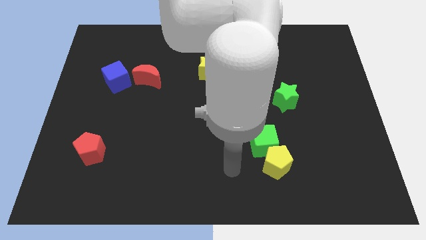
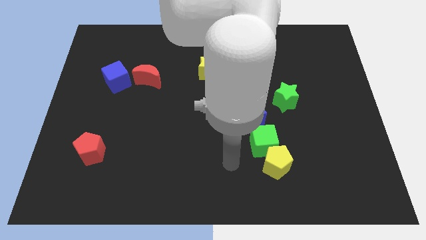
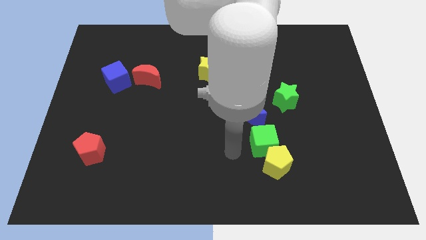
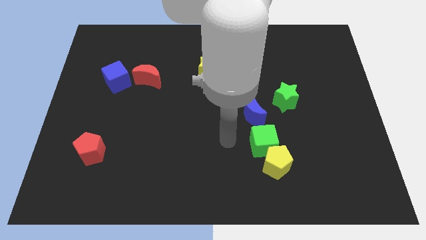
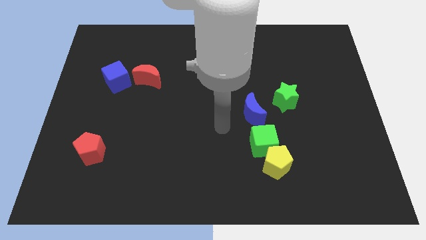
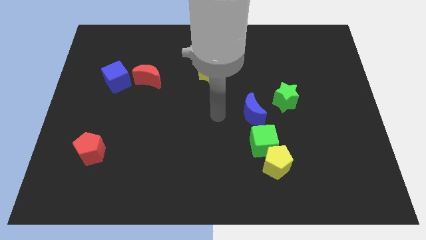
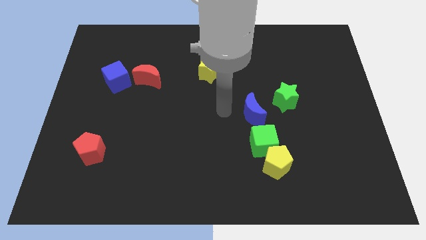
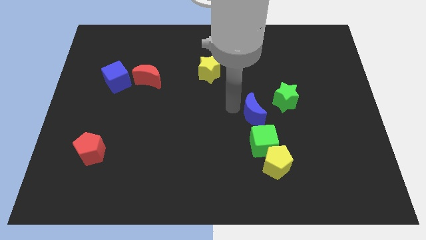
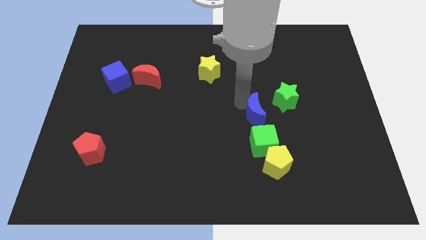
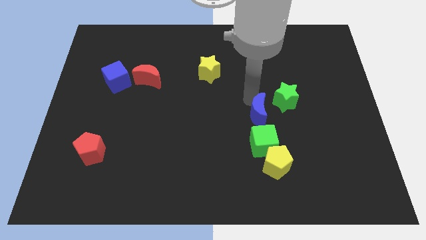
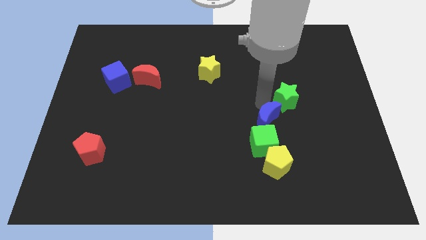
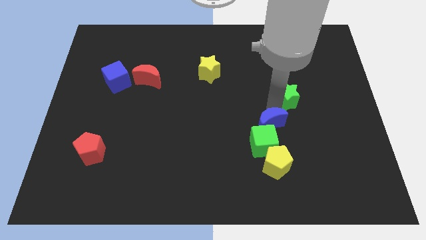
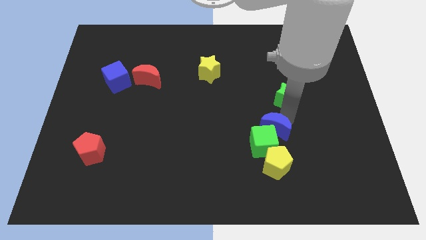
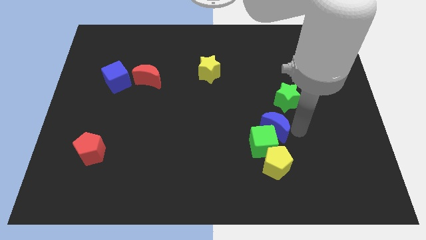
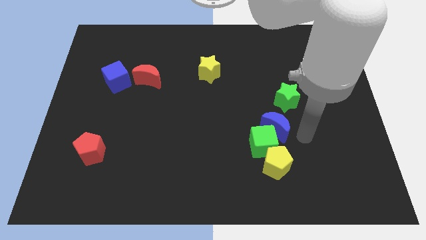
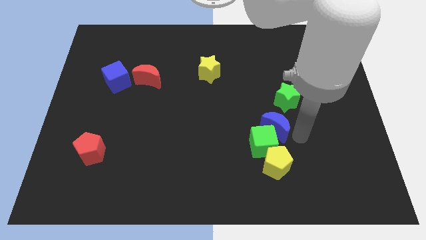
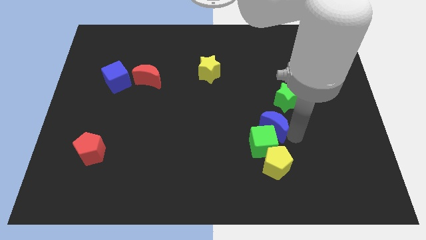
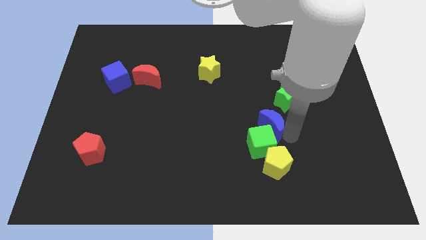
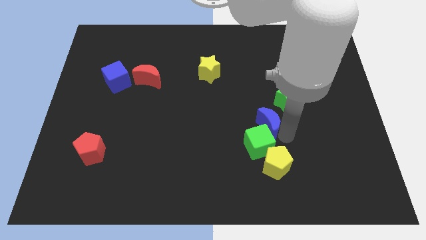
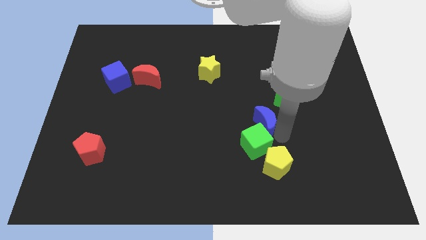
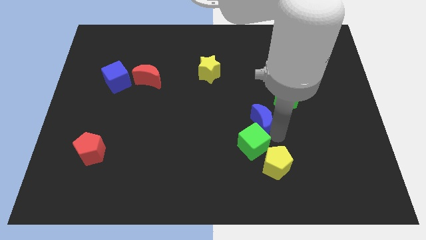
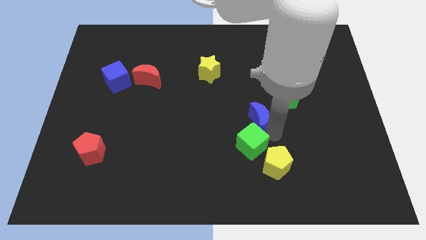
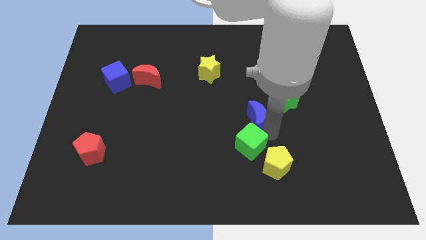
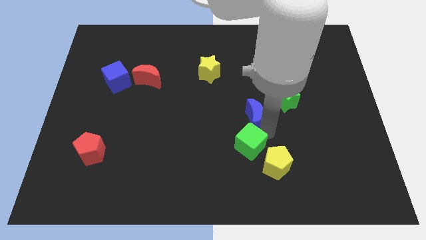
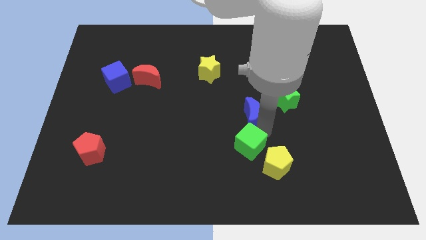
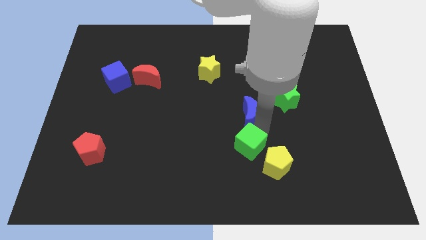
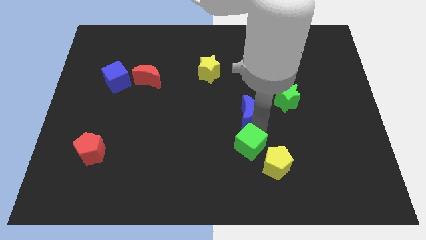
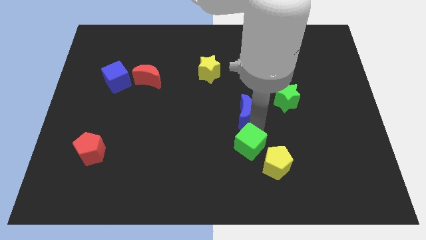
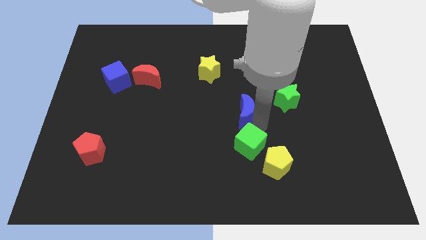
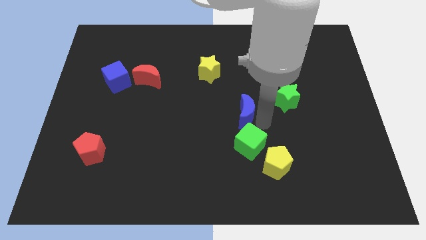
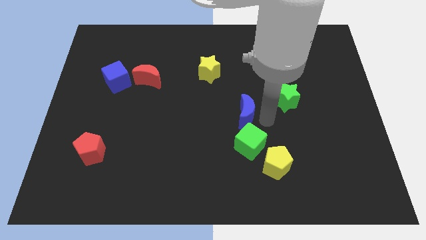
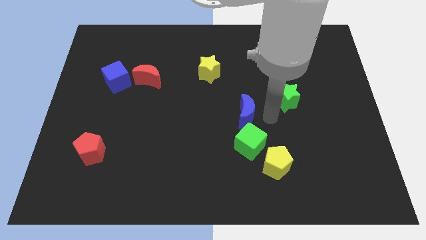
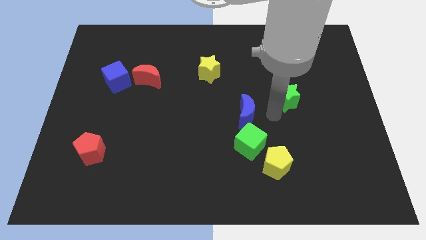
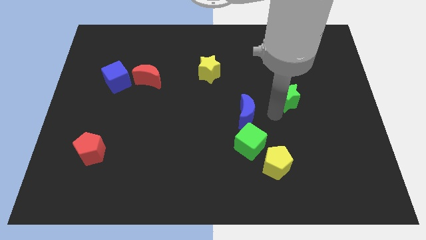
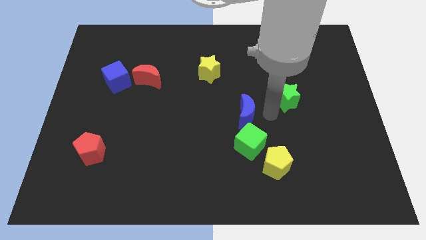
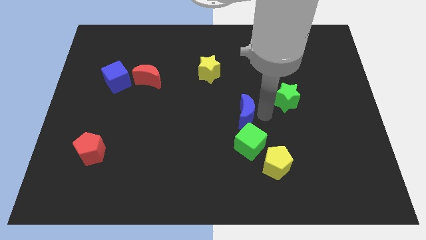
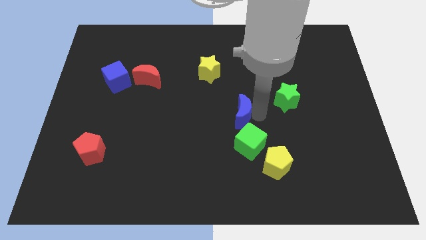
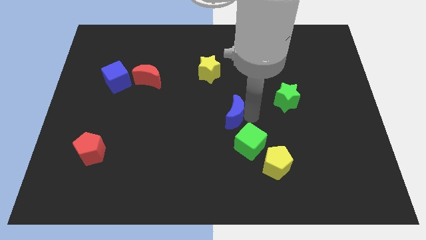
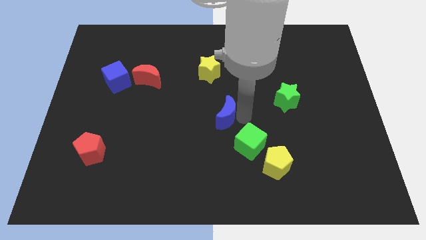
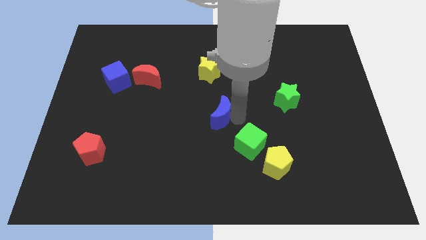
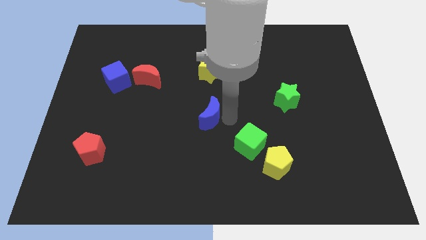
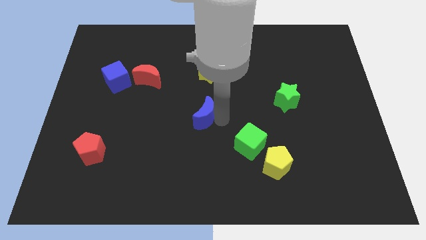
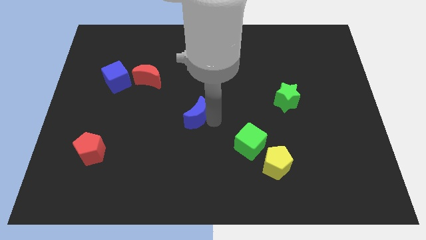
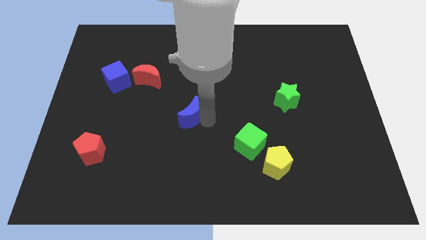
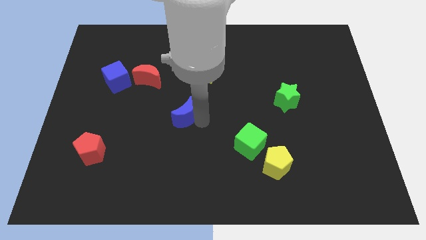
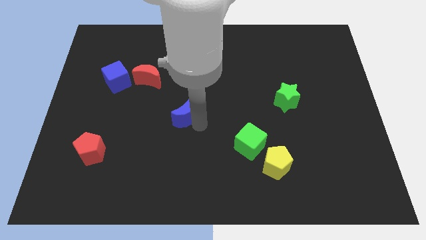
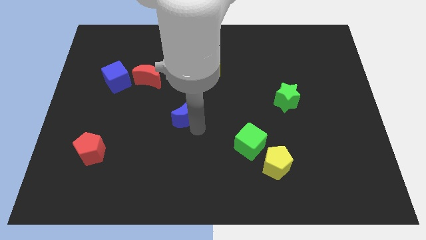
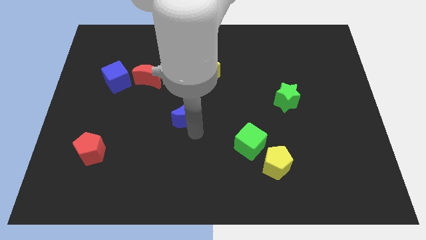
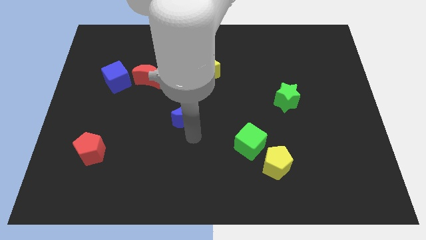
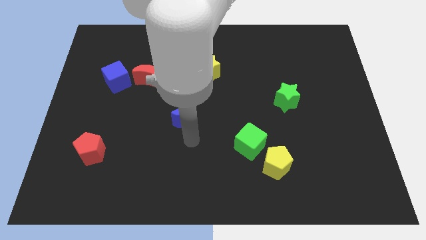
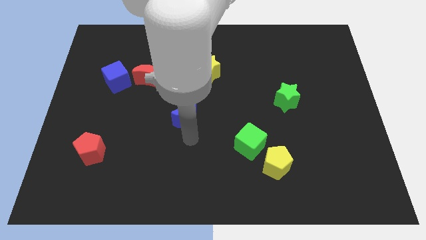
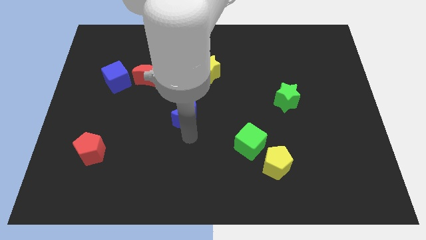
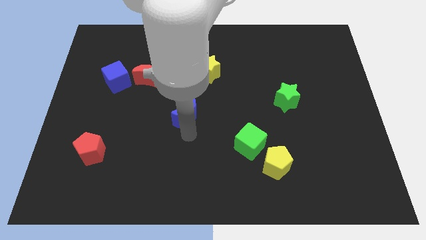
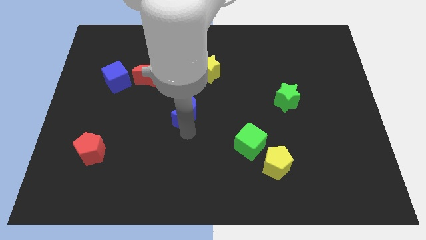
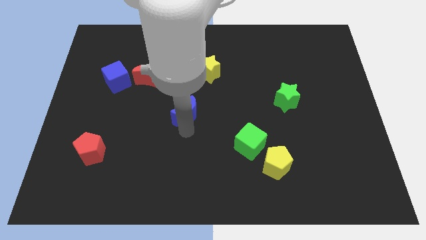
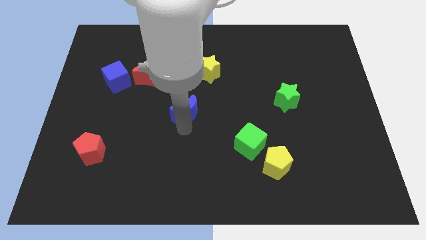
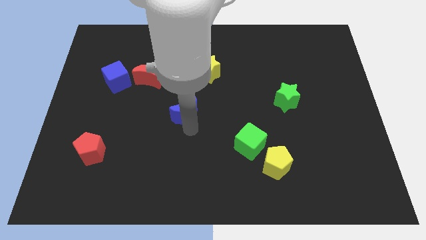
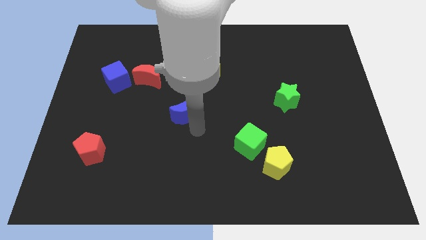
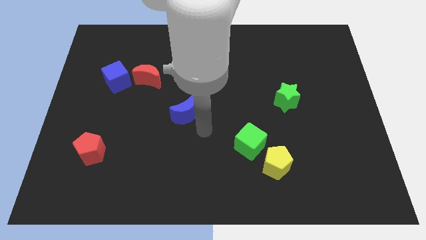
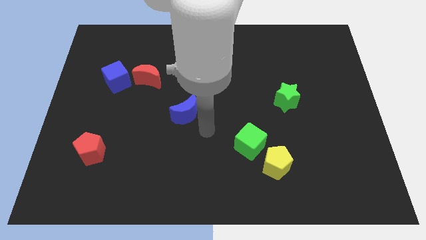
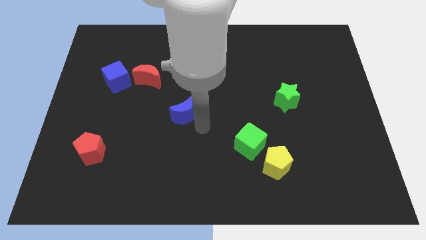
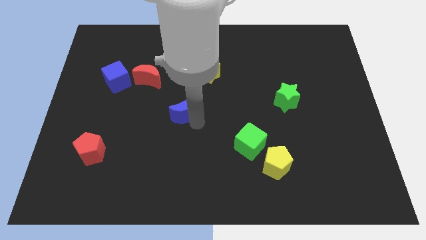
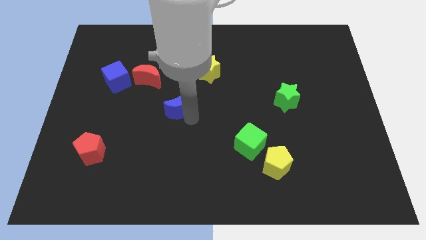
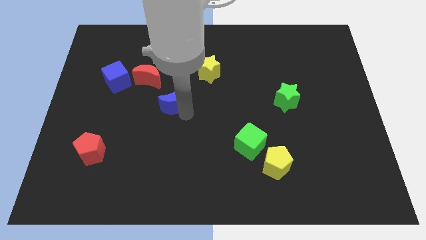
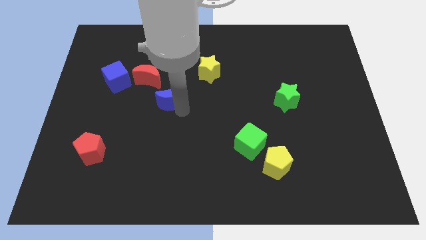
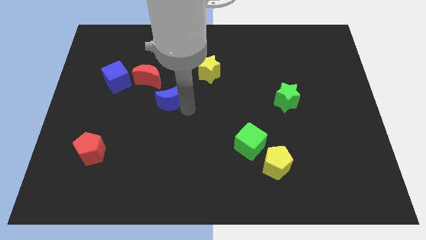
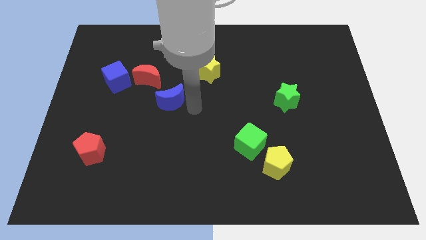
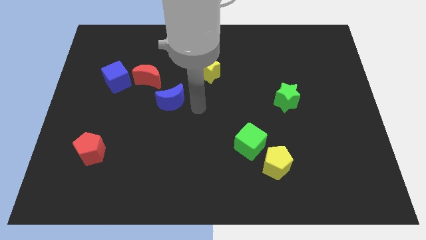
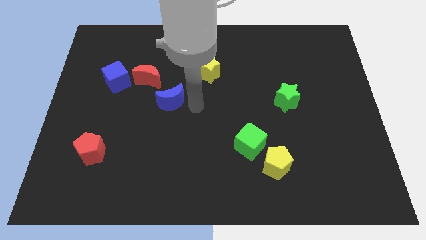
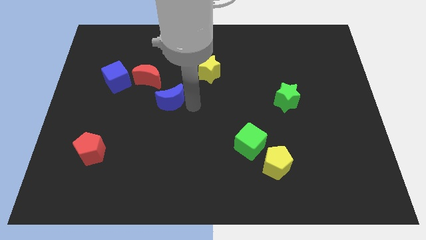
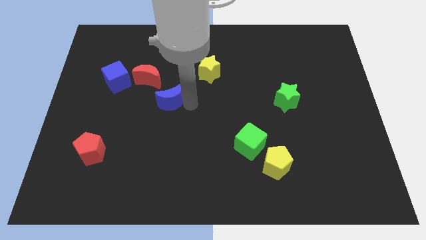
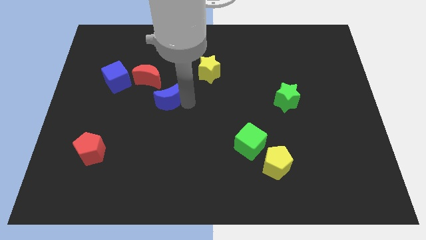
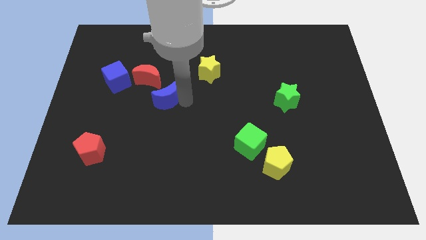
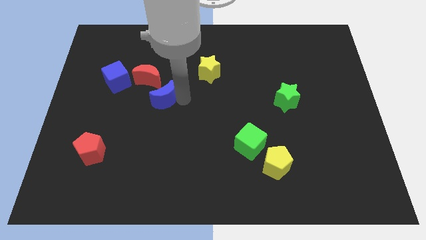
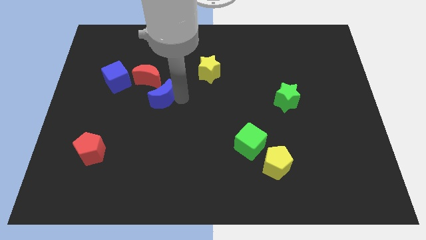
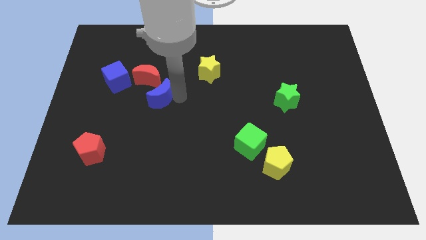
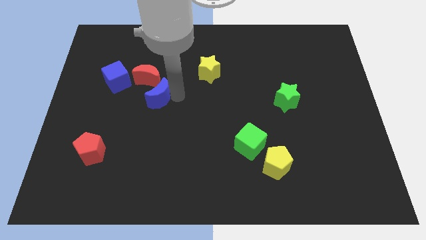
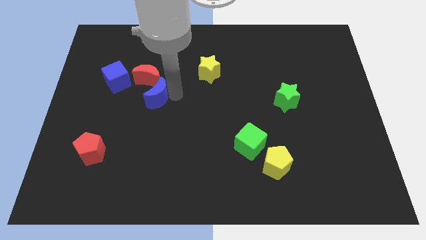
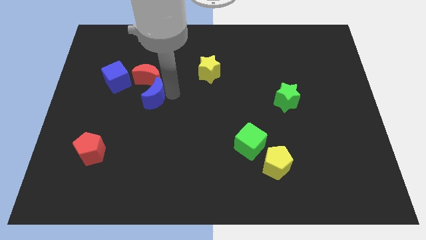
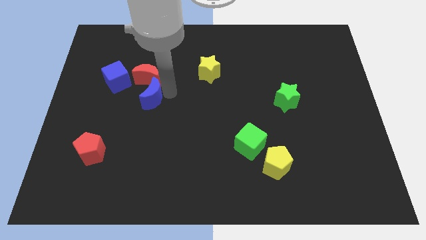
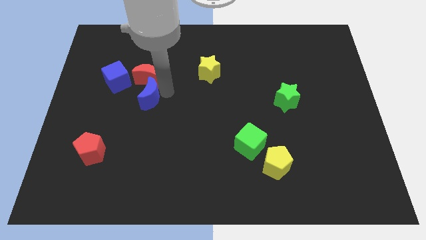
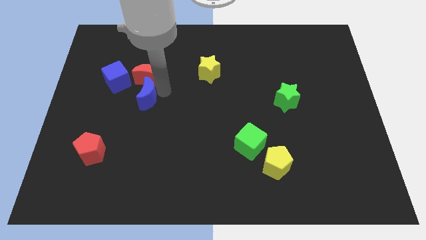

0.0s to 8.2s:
push the blue moon to the bottom left side of the red moon
